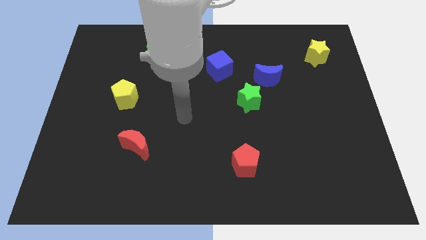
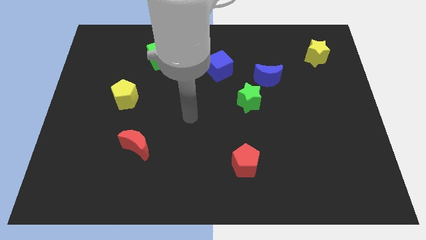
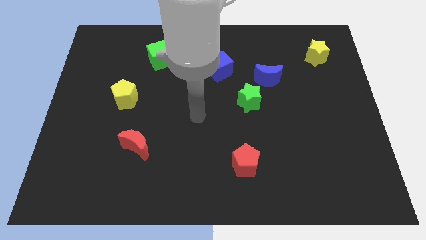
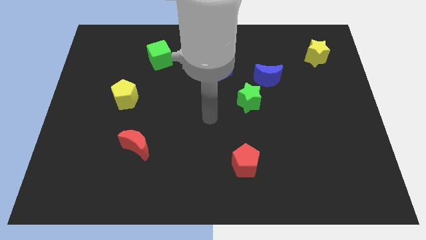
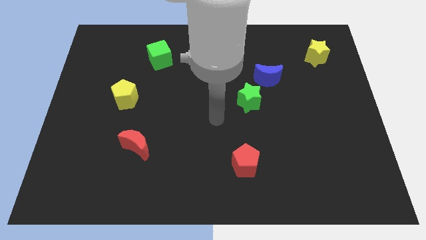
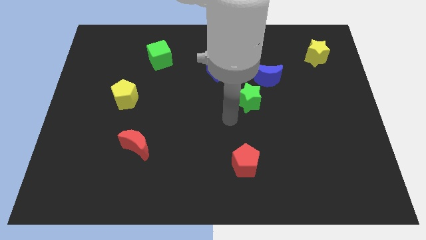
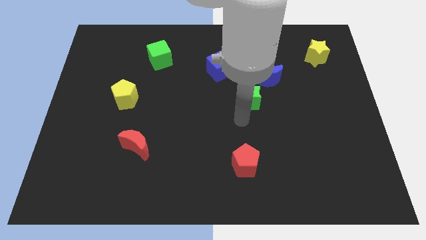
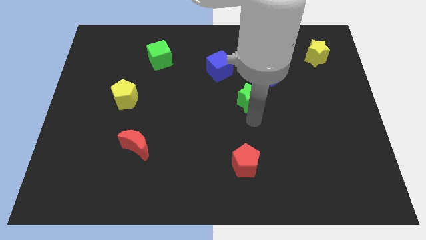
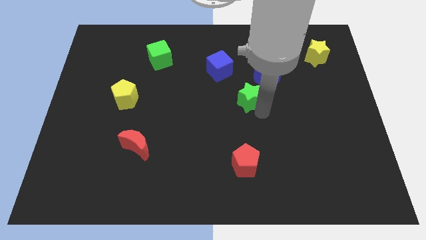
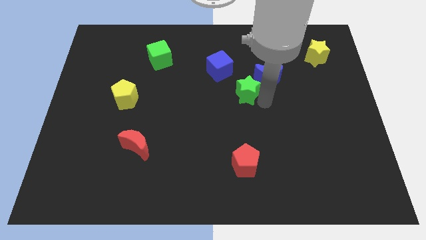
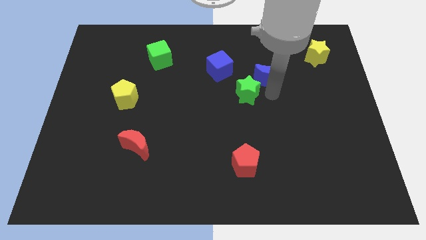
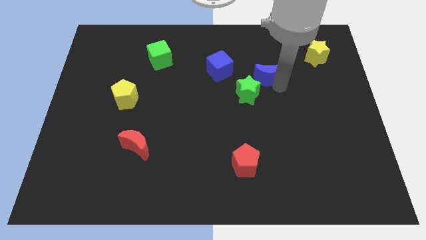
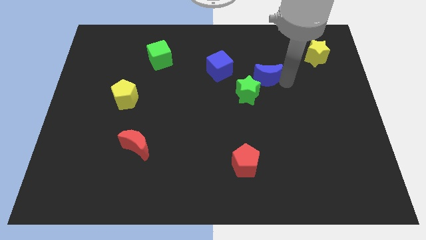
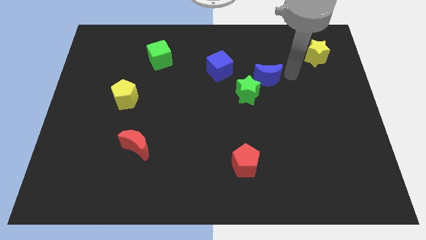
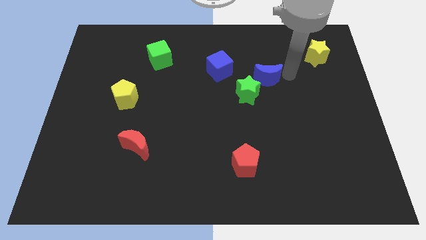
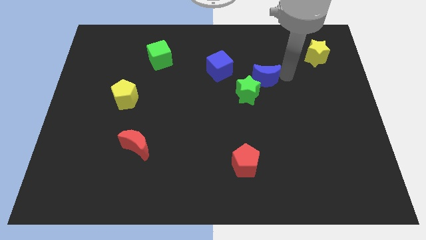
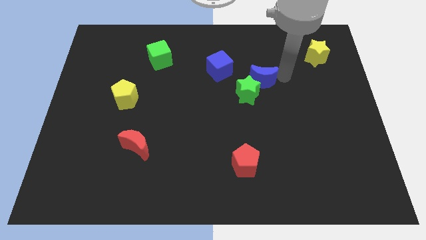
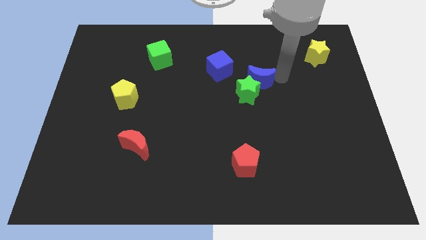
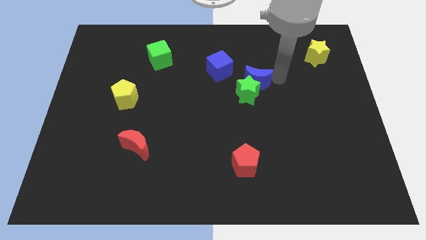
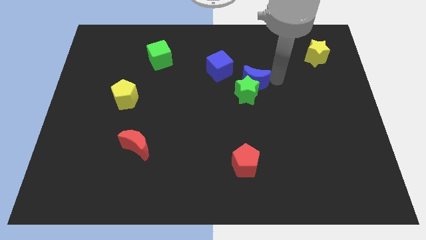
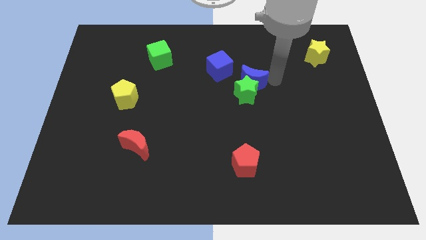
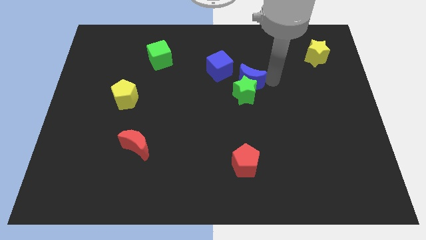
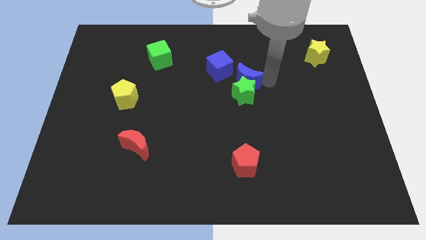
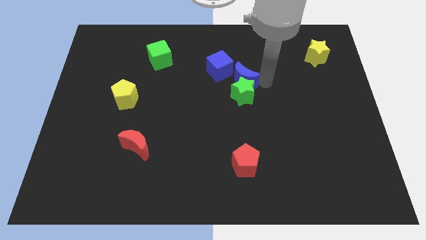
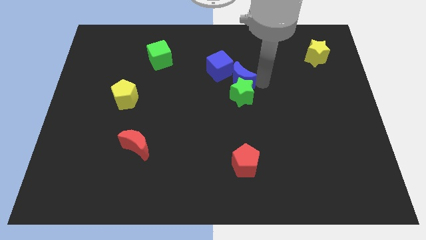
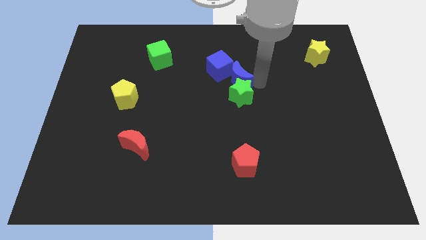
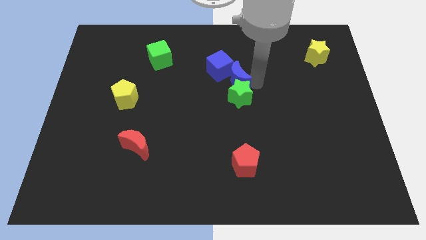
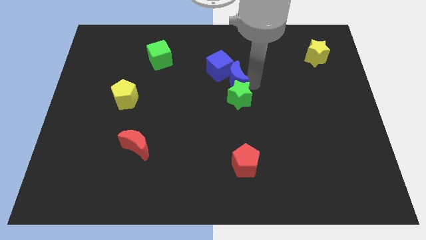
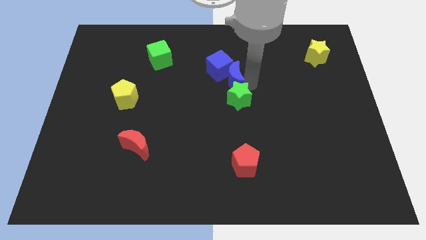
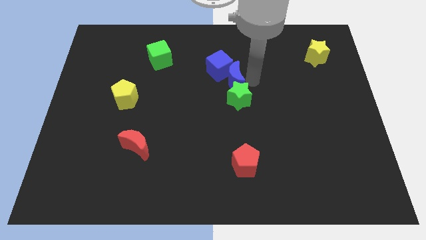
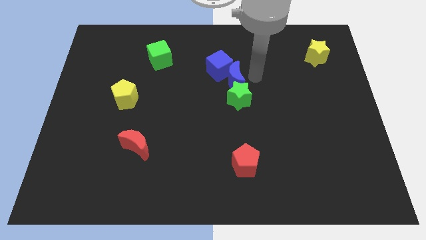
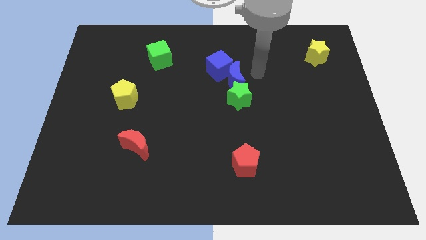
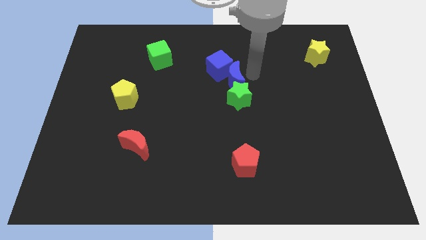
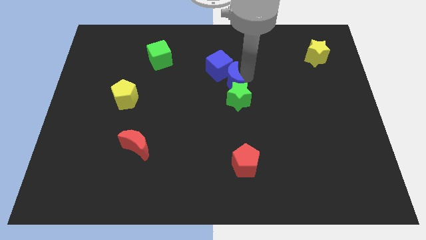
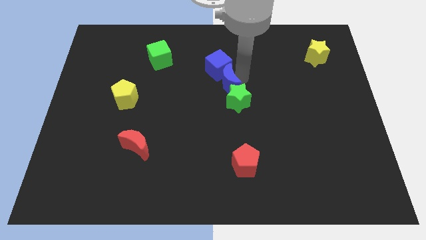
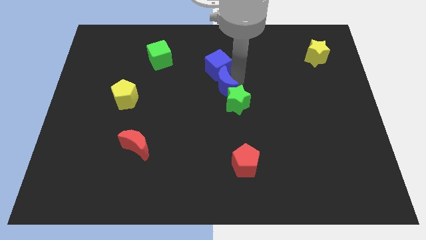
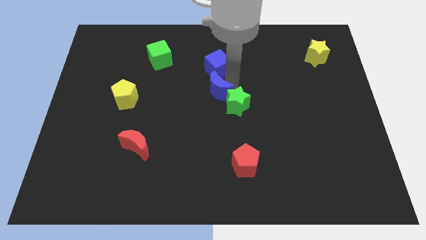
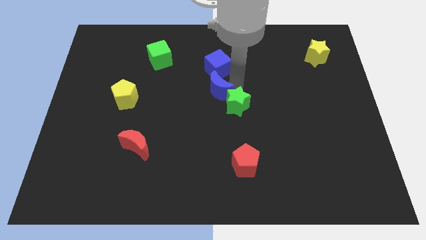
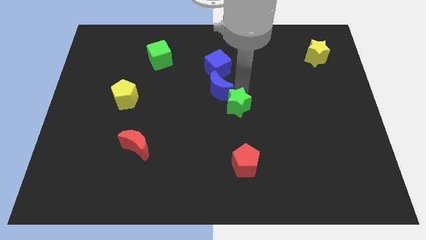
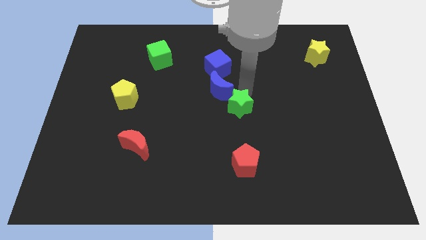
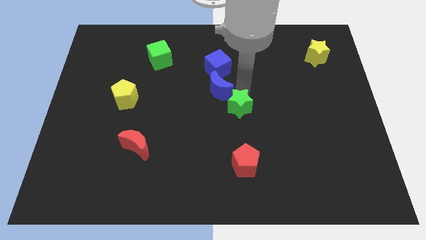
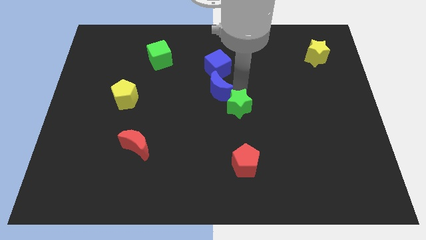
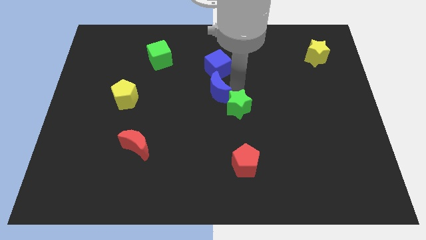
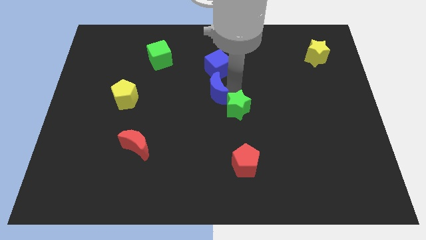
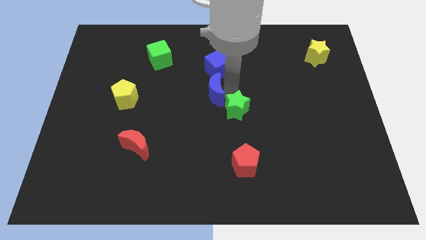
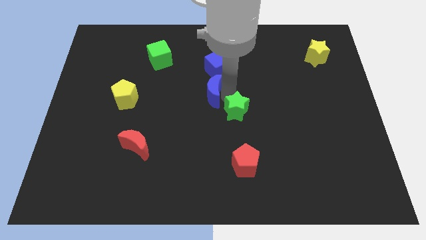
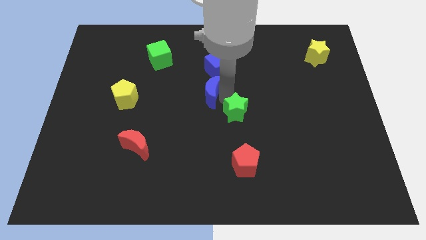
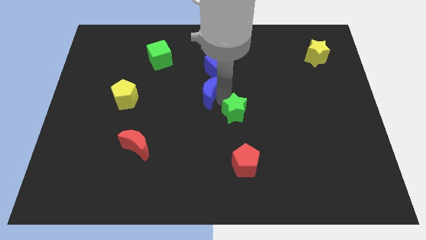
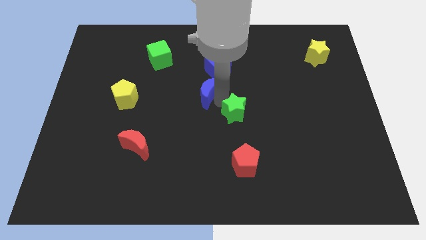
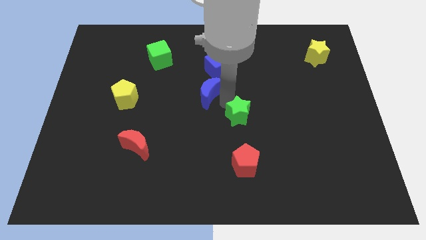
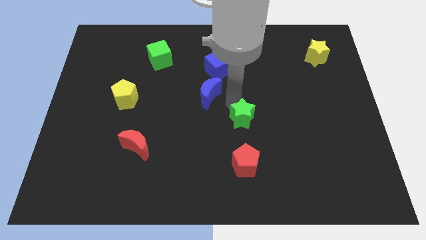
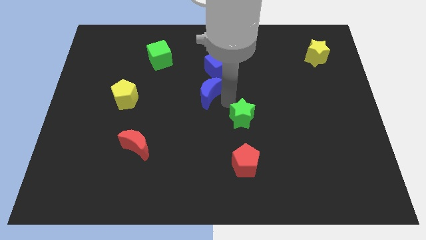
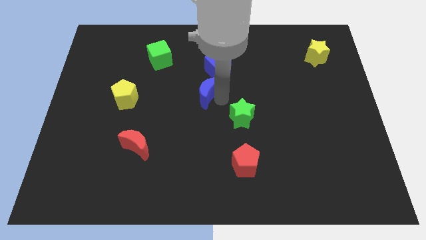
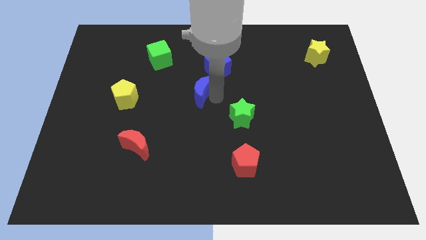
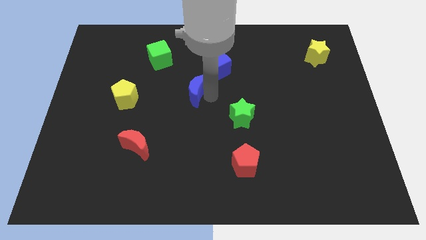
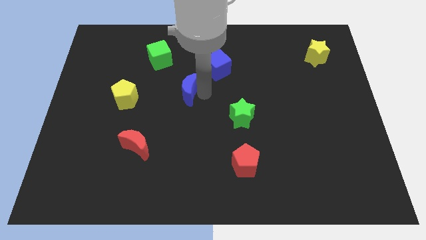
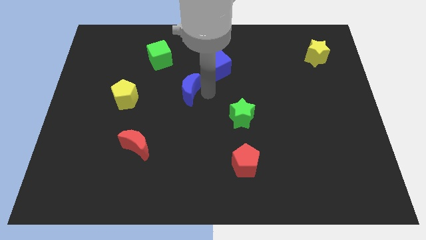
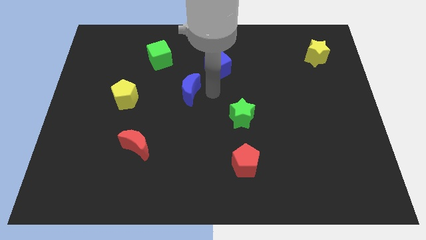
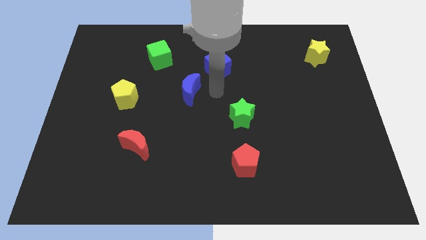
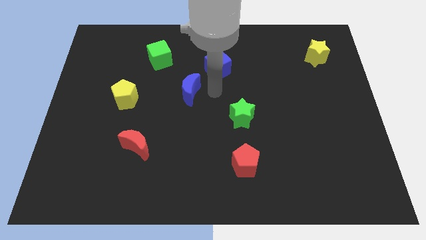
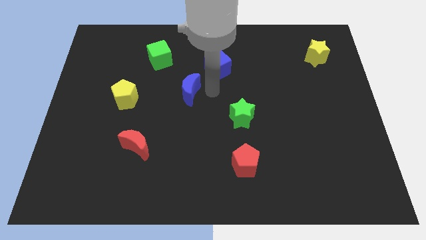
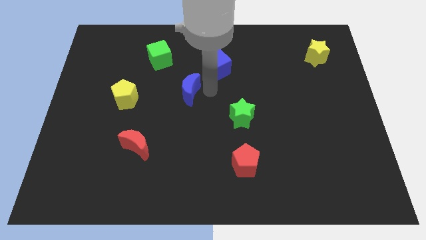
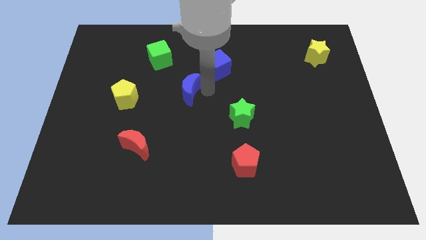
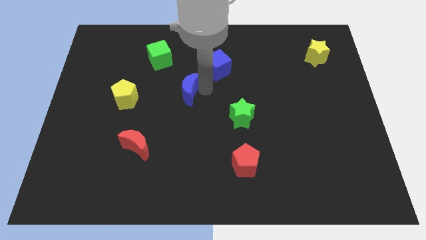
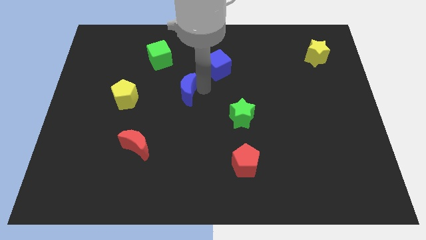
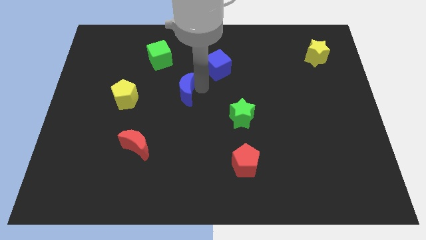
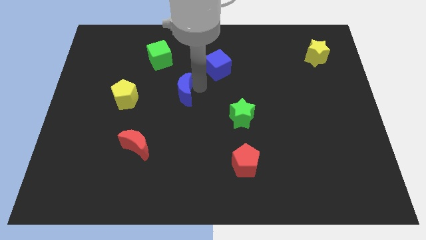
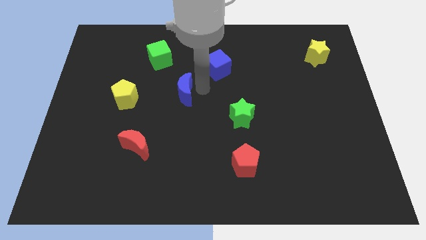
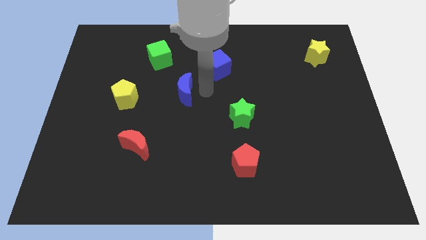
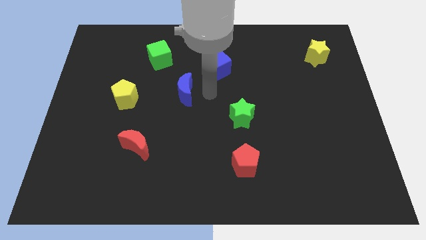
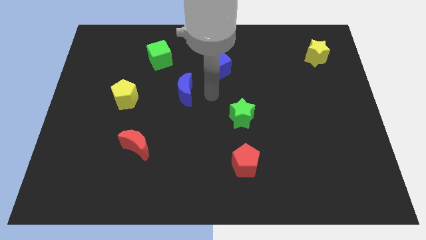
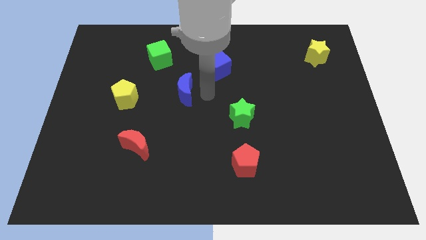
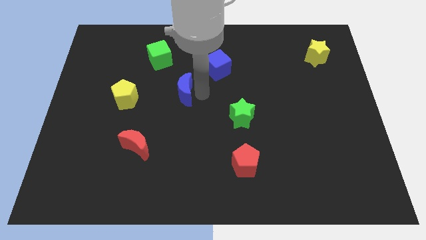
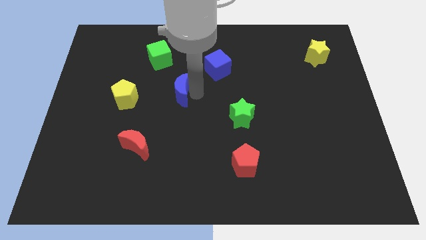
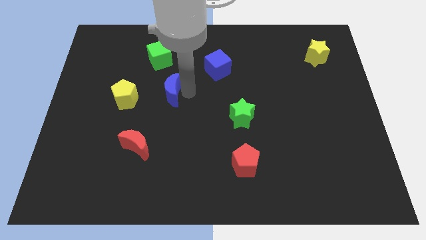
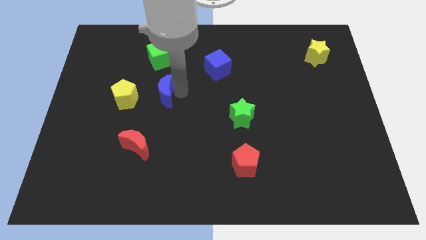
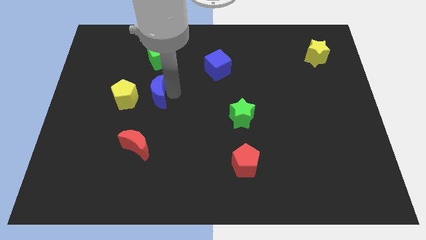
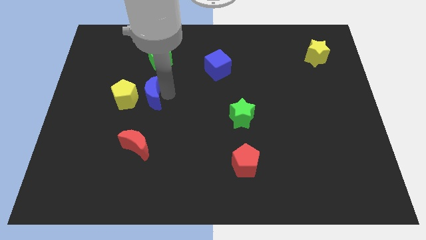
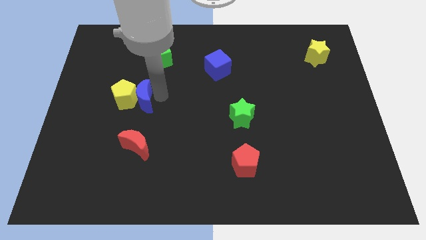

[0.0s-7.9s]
put the blue moon towards the yellow pentagon
